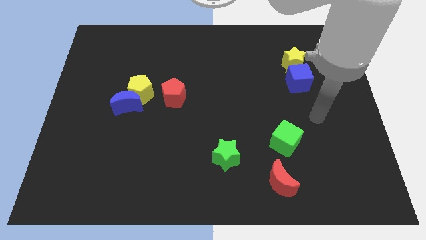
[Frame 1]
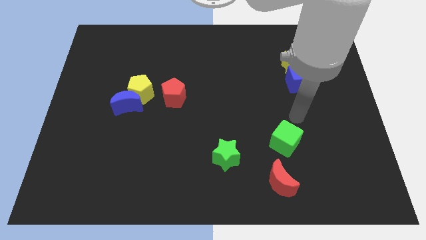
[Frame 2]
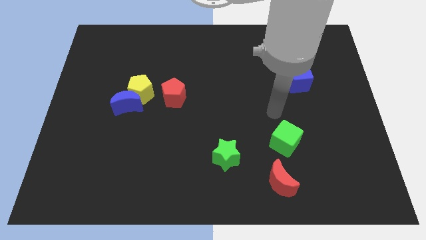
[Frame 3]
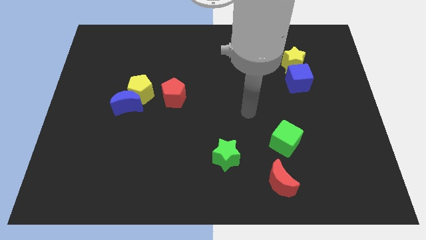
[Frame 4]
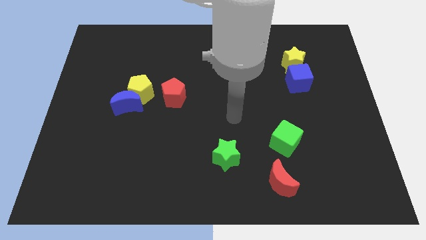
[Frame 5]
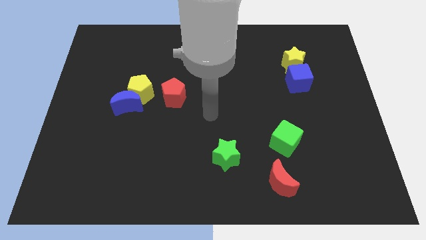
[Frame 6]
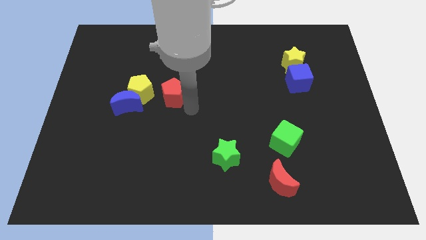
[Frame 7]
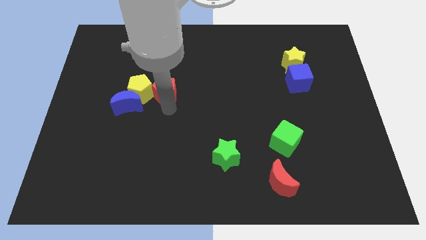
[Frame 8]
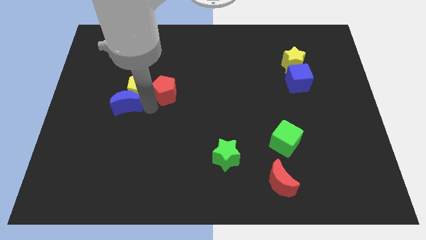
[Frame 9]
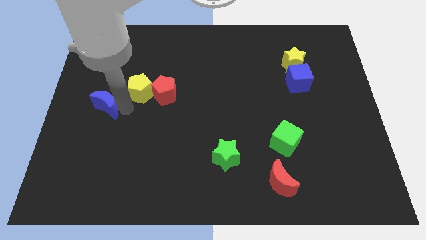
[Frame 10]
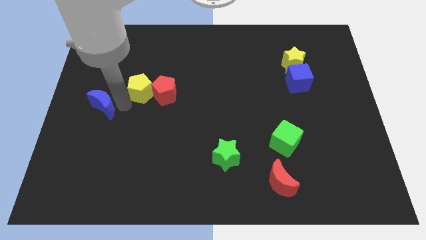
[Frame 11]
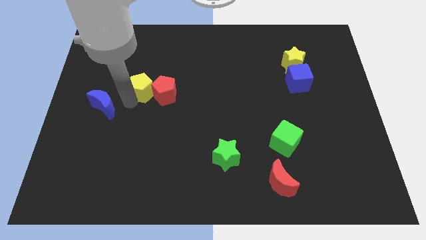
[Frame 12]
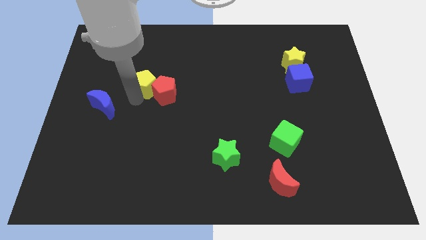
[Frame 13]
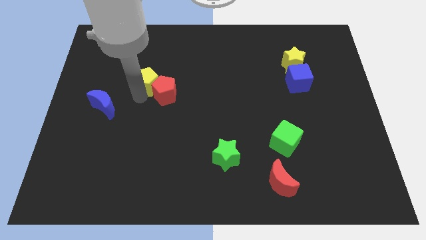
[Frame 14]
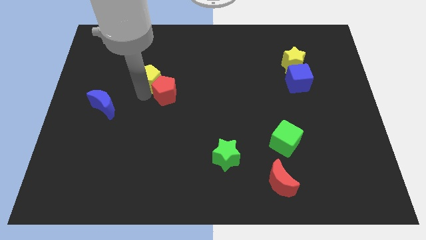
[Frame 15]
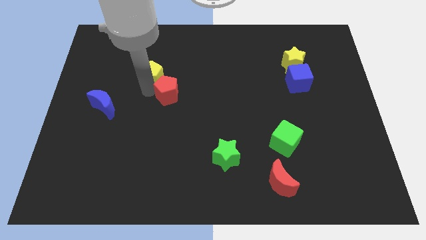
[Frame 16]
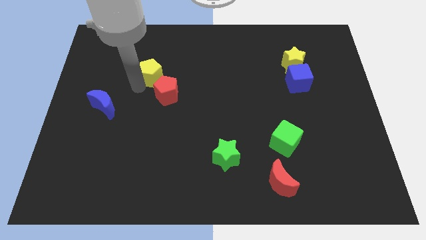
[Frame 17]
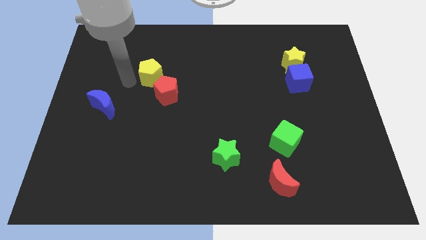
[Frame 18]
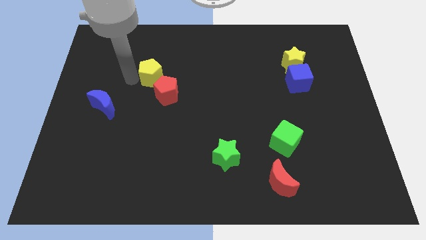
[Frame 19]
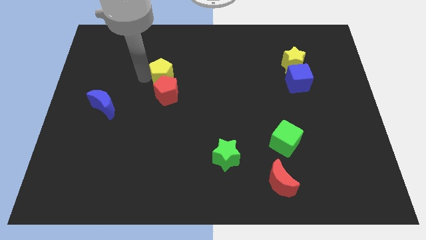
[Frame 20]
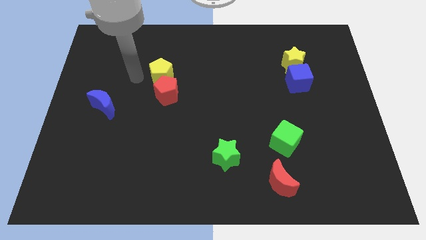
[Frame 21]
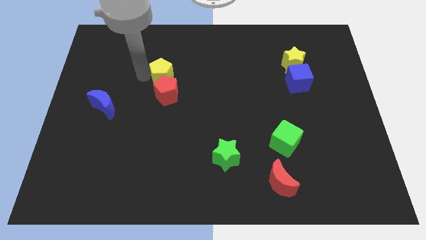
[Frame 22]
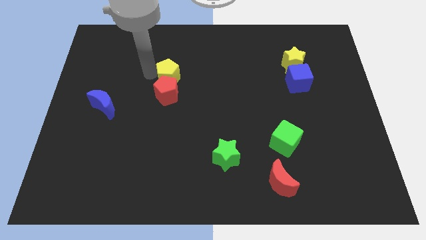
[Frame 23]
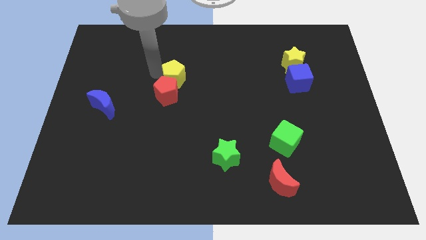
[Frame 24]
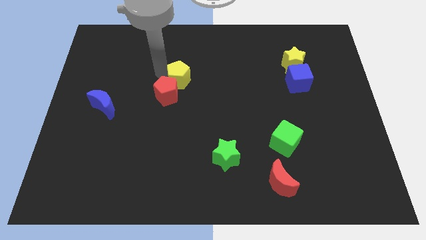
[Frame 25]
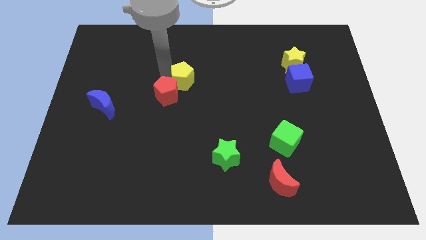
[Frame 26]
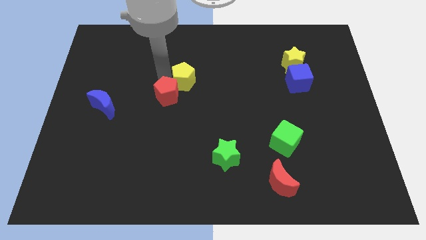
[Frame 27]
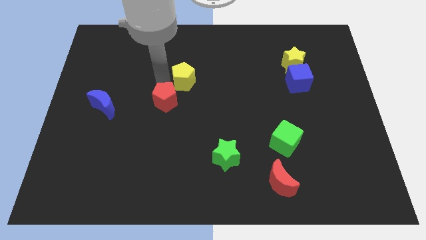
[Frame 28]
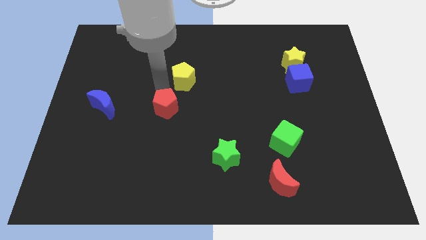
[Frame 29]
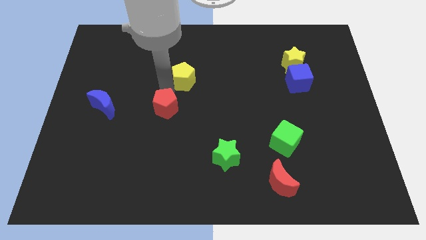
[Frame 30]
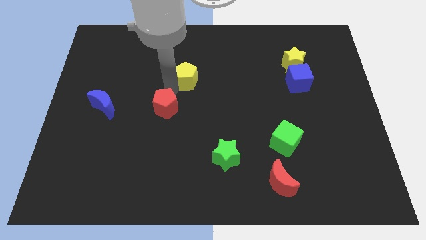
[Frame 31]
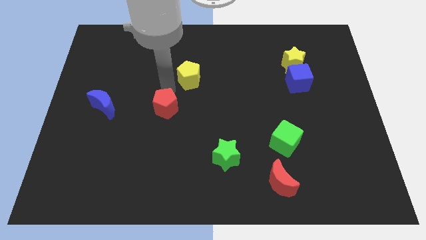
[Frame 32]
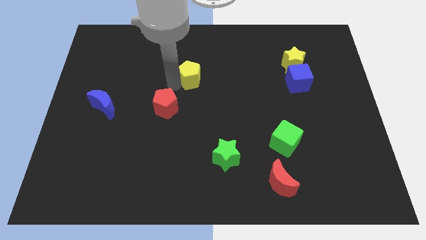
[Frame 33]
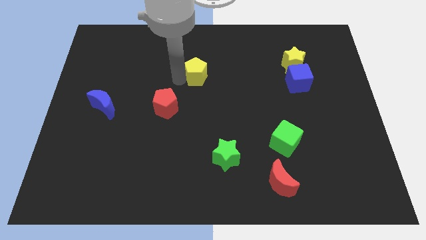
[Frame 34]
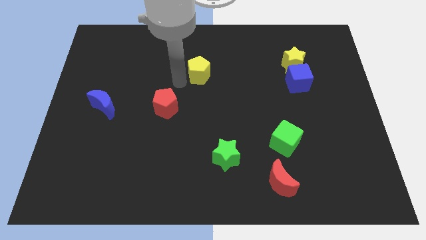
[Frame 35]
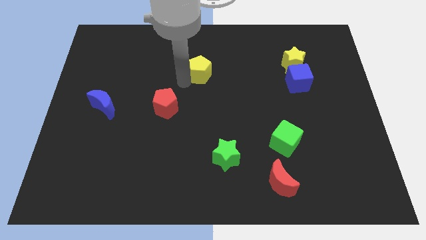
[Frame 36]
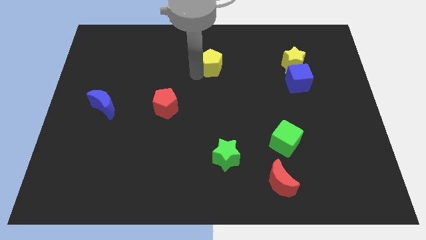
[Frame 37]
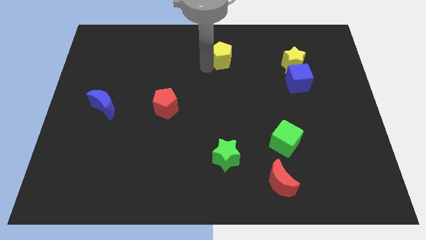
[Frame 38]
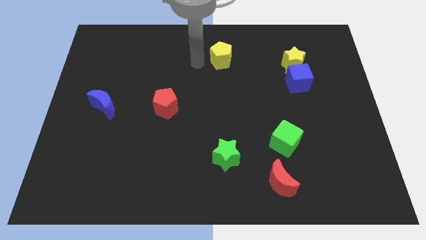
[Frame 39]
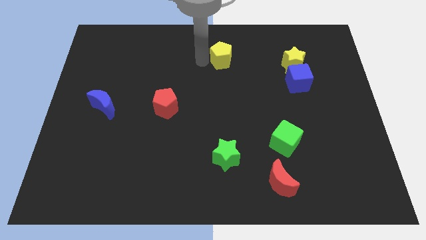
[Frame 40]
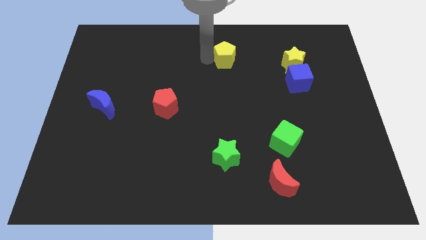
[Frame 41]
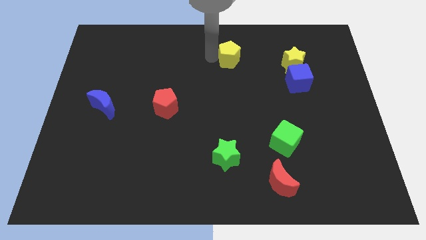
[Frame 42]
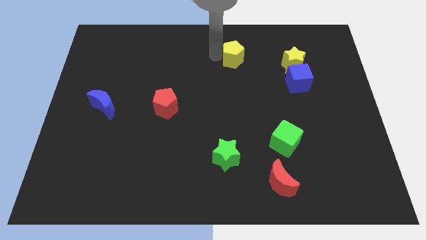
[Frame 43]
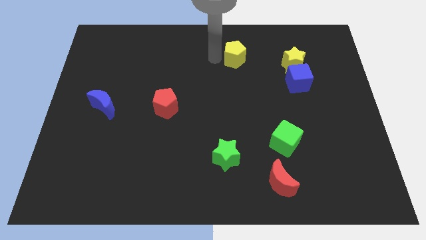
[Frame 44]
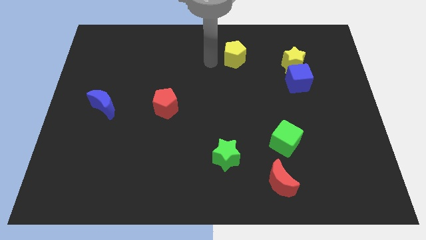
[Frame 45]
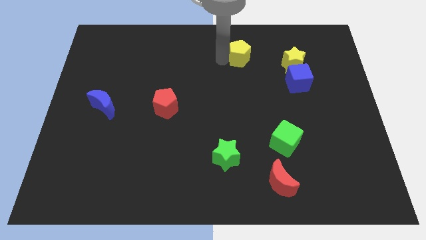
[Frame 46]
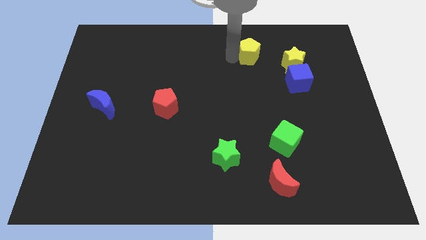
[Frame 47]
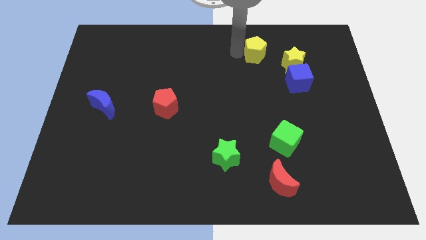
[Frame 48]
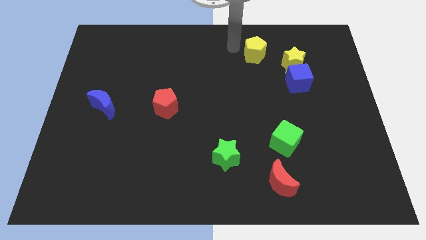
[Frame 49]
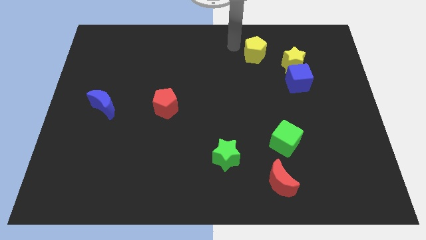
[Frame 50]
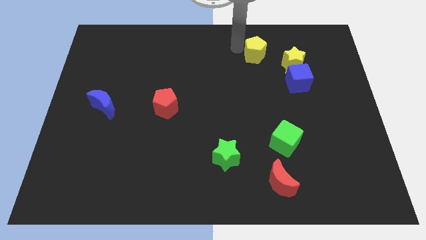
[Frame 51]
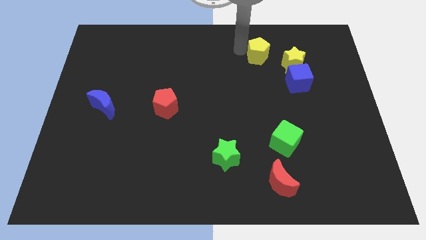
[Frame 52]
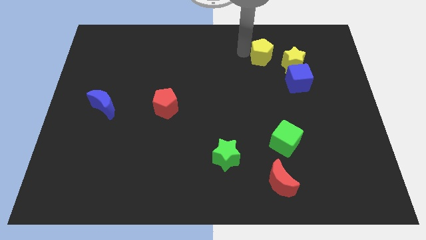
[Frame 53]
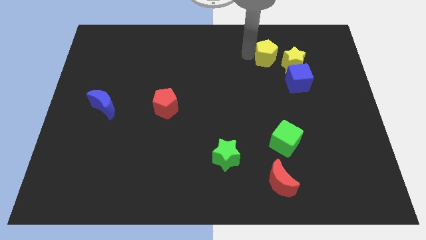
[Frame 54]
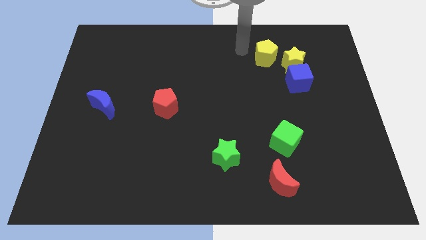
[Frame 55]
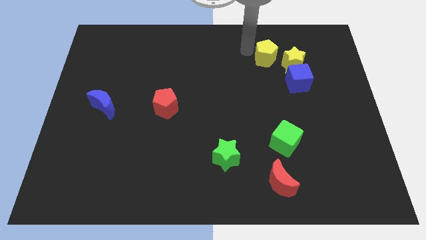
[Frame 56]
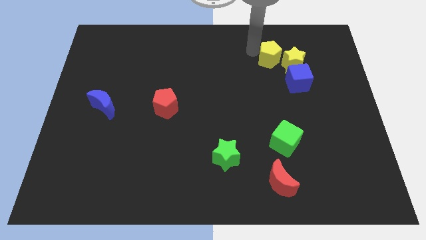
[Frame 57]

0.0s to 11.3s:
slide the yellow pentagon close to the yellow star

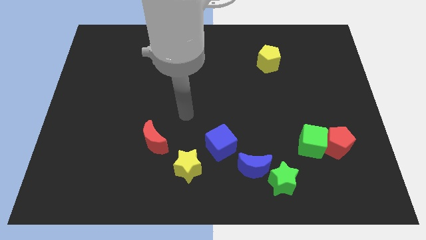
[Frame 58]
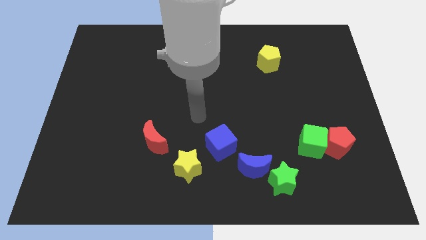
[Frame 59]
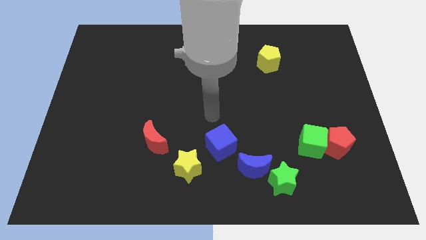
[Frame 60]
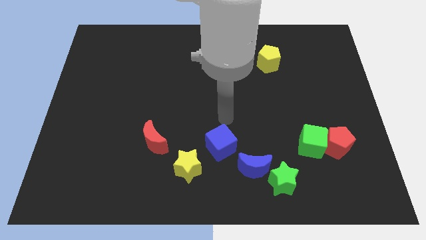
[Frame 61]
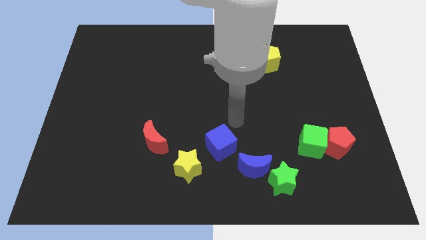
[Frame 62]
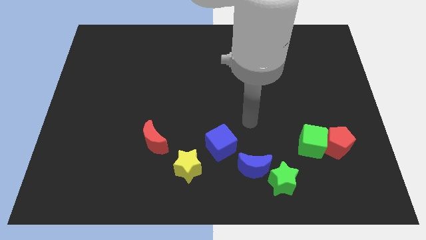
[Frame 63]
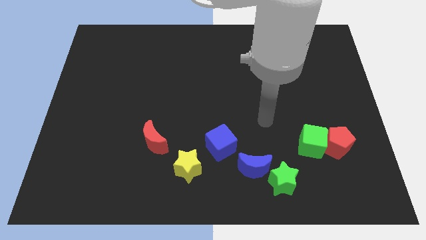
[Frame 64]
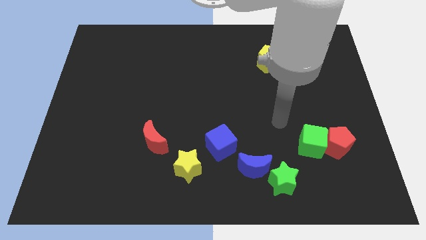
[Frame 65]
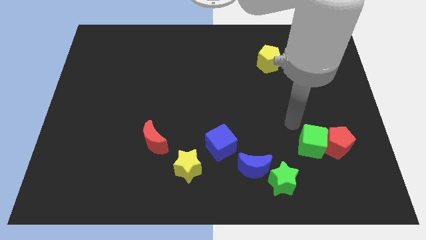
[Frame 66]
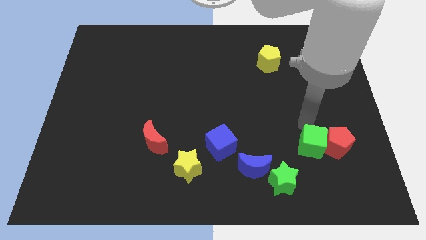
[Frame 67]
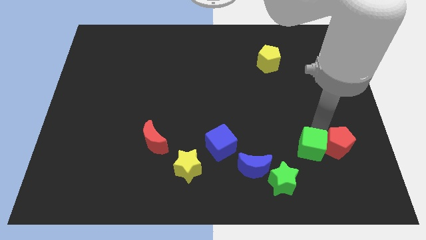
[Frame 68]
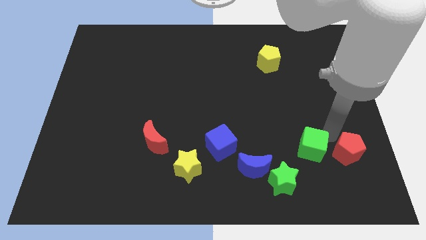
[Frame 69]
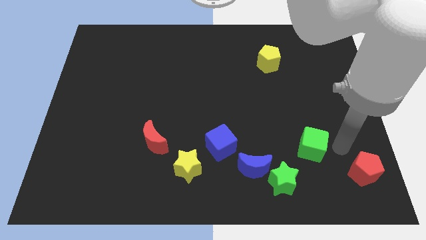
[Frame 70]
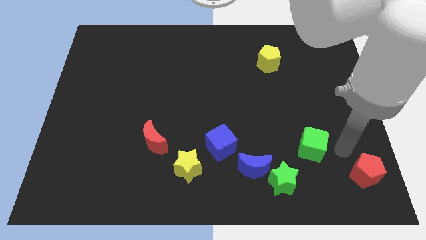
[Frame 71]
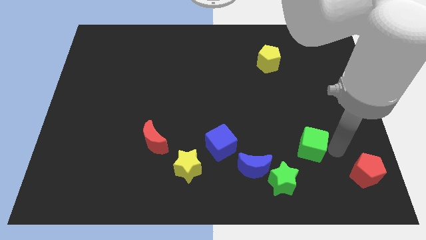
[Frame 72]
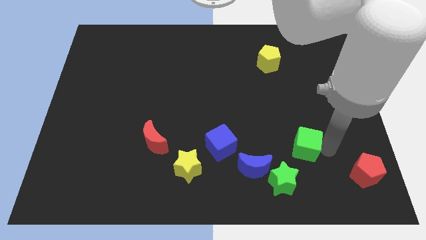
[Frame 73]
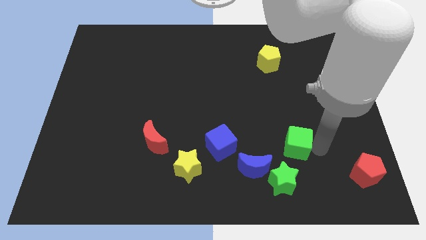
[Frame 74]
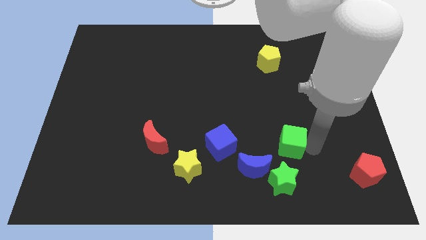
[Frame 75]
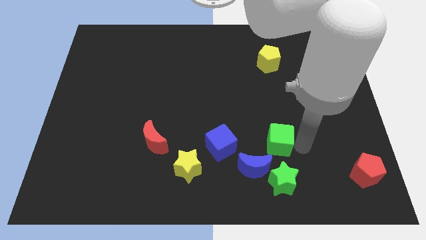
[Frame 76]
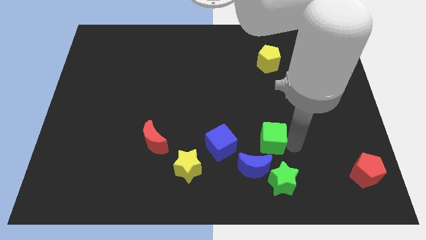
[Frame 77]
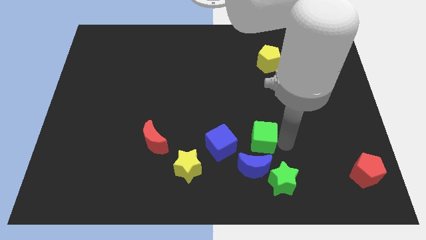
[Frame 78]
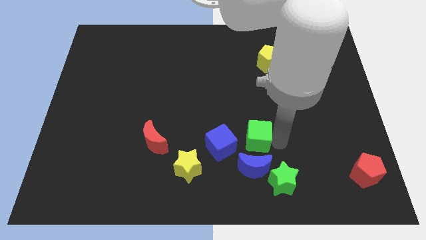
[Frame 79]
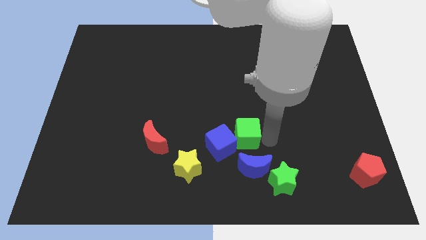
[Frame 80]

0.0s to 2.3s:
put the green cube close to the blue cube
